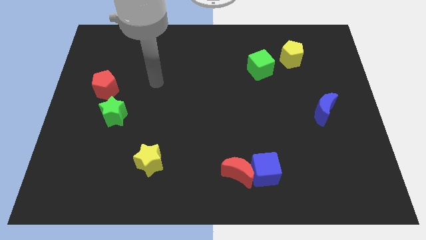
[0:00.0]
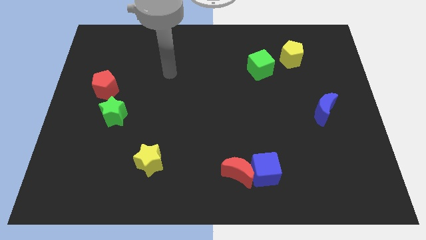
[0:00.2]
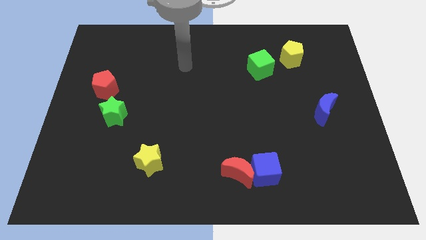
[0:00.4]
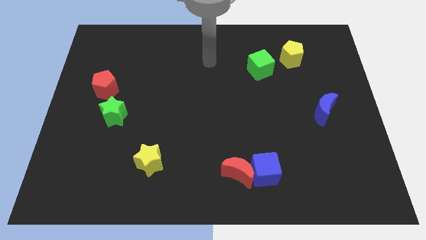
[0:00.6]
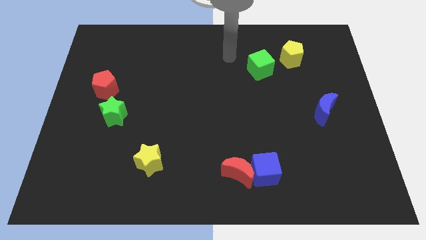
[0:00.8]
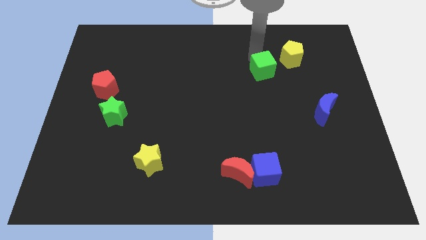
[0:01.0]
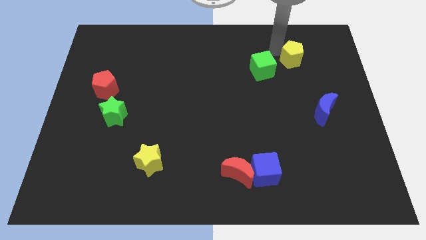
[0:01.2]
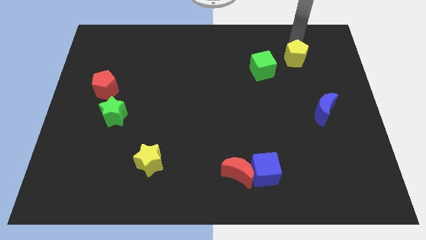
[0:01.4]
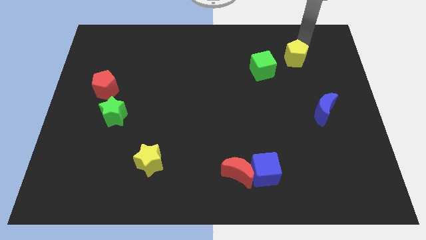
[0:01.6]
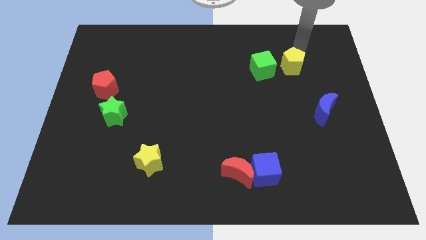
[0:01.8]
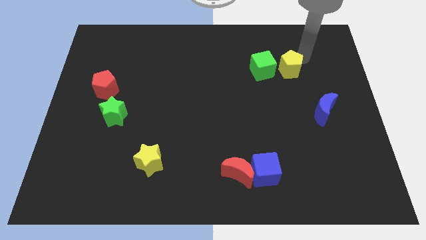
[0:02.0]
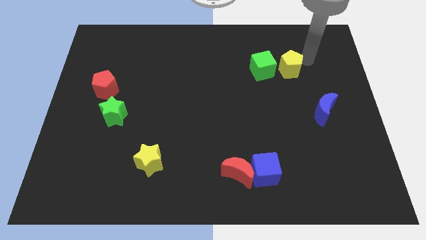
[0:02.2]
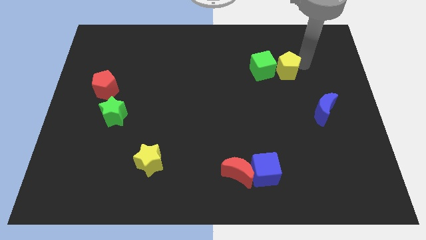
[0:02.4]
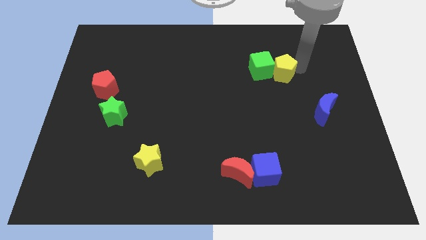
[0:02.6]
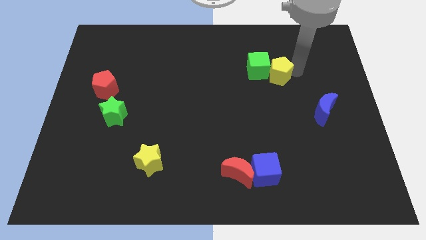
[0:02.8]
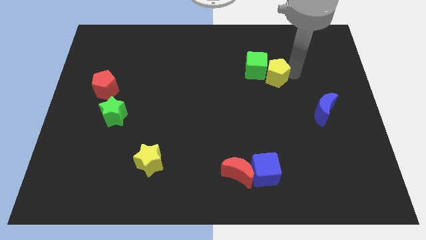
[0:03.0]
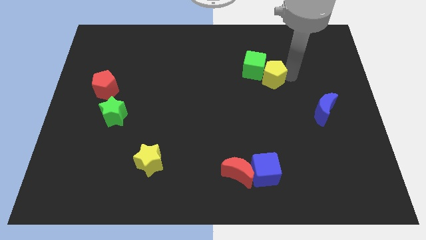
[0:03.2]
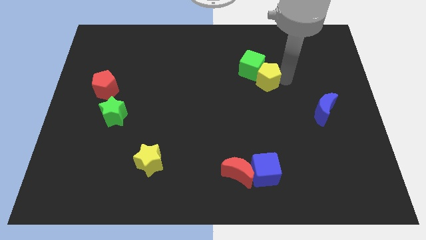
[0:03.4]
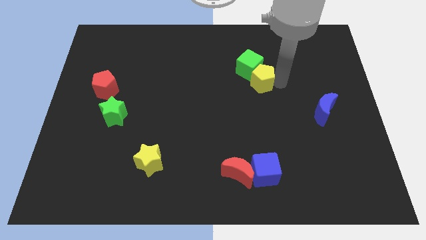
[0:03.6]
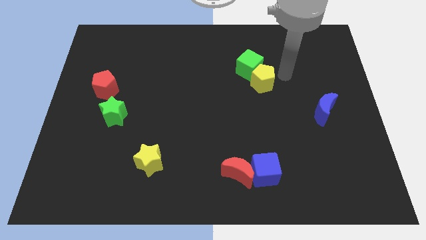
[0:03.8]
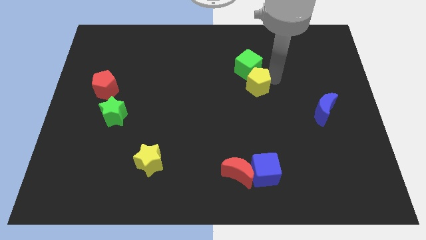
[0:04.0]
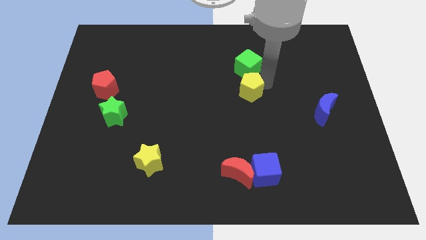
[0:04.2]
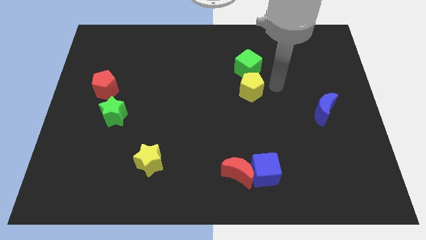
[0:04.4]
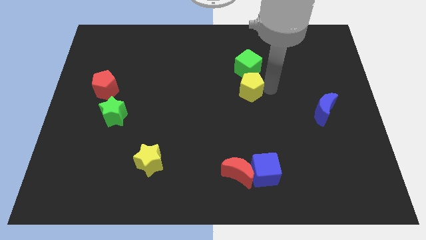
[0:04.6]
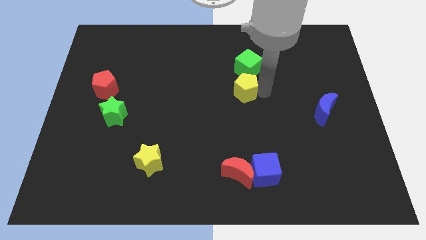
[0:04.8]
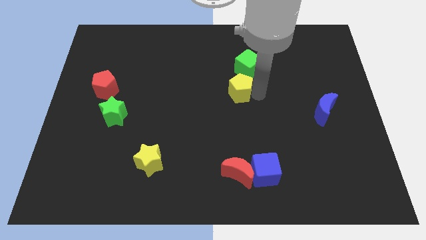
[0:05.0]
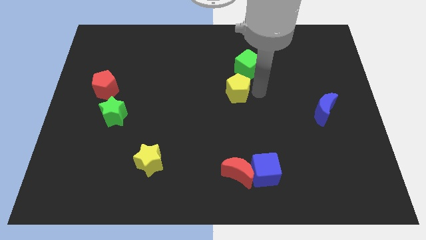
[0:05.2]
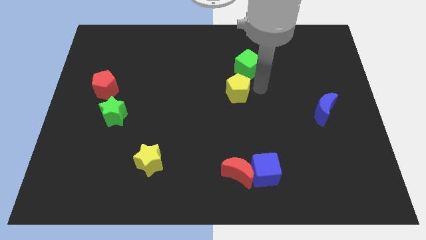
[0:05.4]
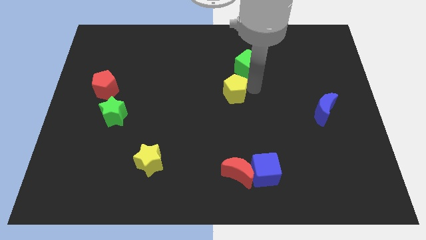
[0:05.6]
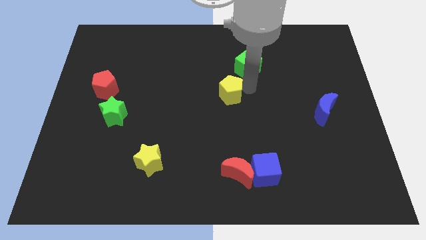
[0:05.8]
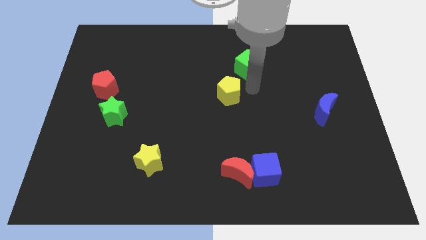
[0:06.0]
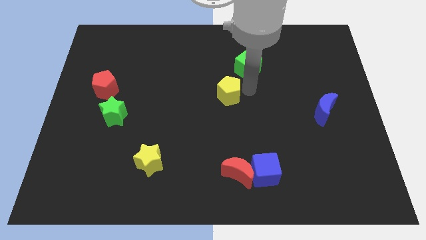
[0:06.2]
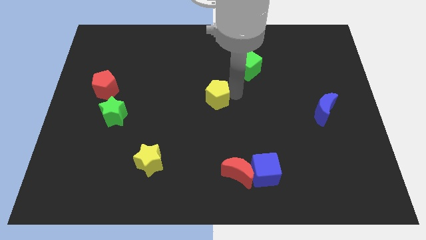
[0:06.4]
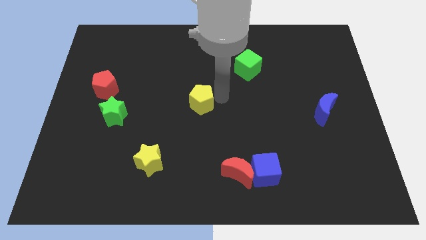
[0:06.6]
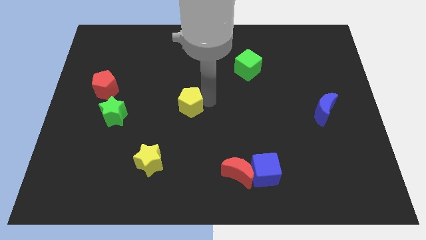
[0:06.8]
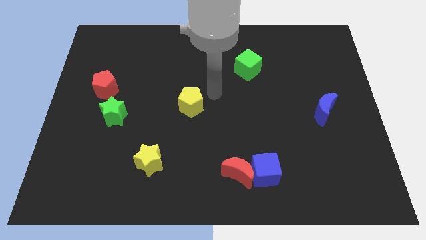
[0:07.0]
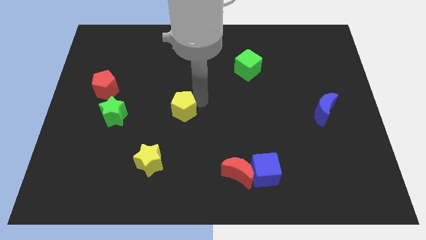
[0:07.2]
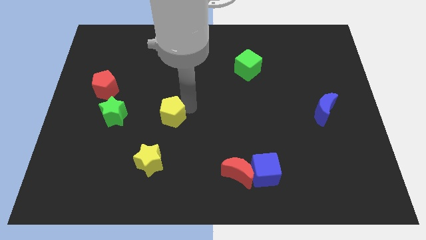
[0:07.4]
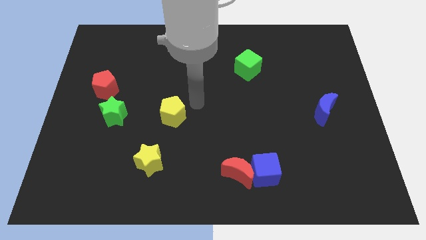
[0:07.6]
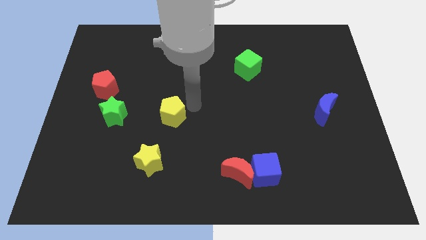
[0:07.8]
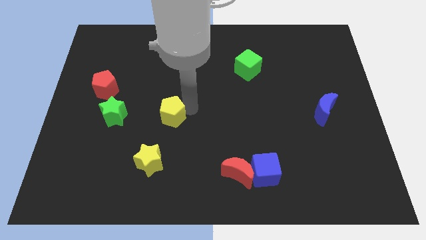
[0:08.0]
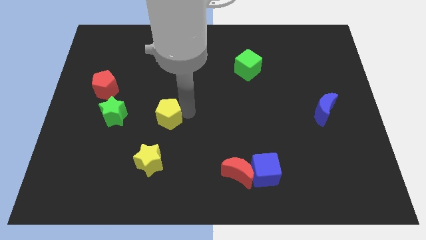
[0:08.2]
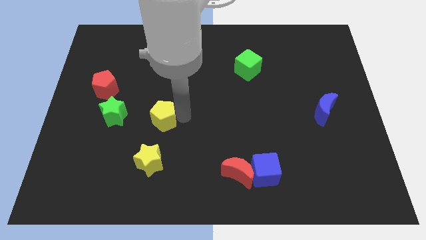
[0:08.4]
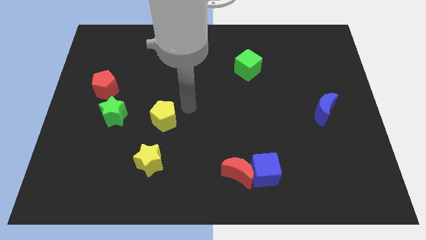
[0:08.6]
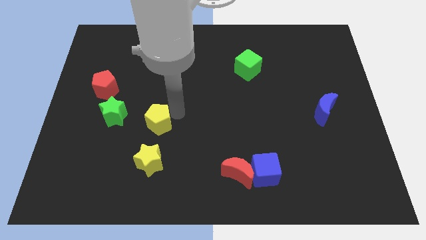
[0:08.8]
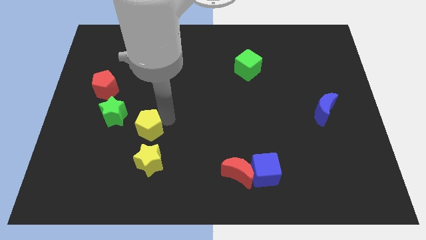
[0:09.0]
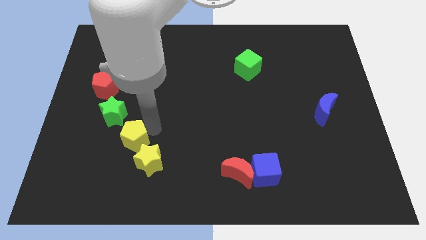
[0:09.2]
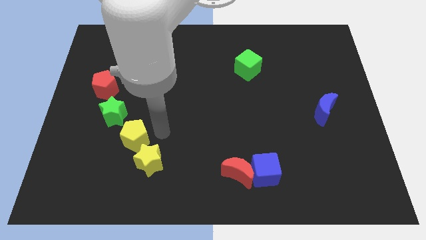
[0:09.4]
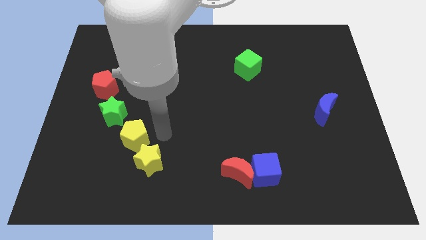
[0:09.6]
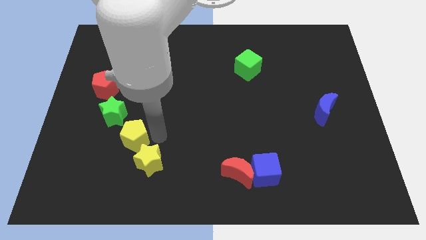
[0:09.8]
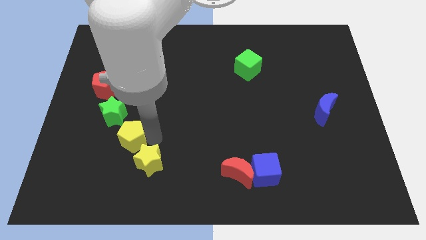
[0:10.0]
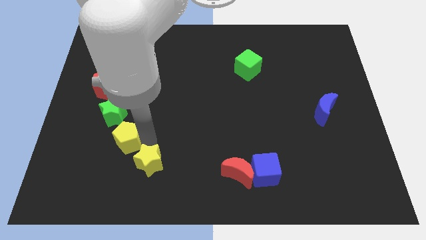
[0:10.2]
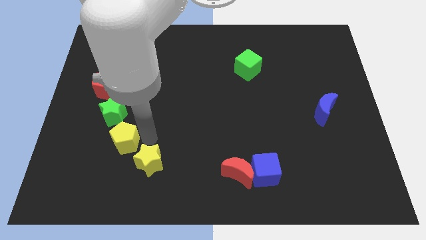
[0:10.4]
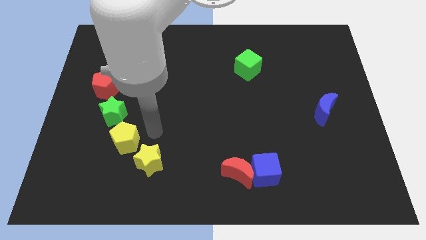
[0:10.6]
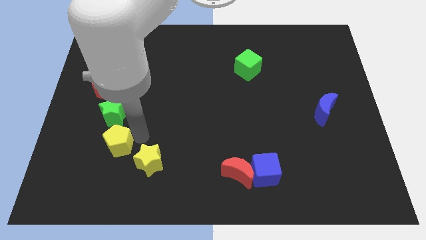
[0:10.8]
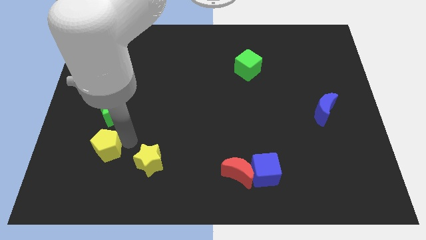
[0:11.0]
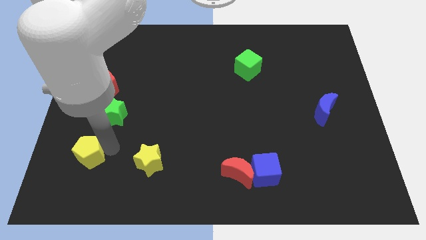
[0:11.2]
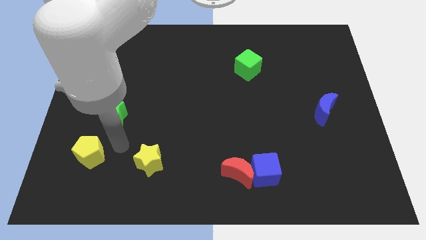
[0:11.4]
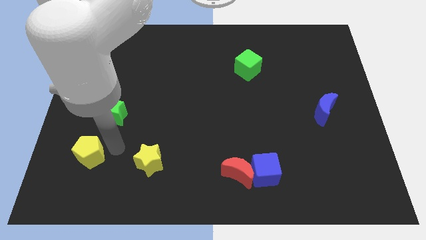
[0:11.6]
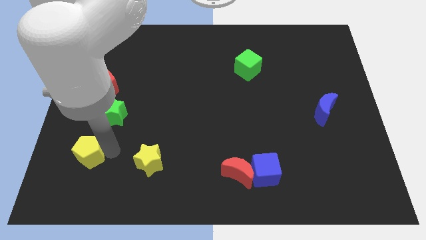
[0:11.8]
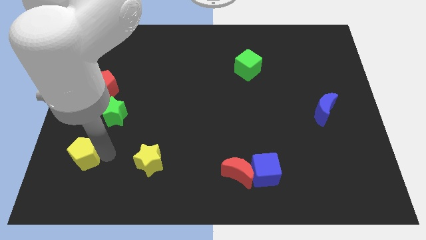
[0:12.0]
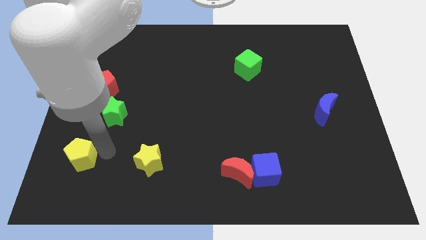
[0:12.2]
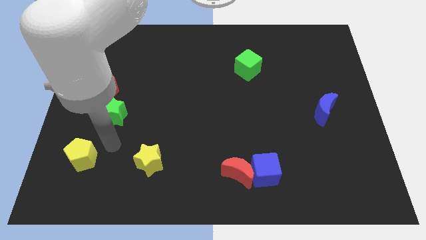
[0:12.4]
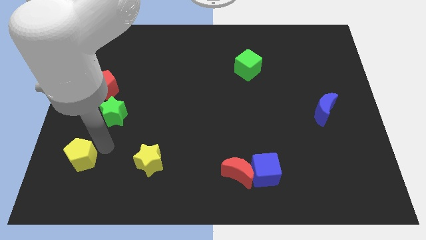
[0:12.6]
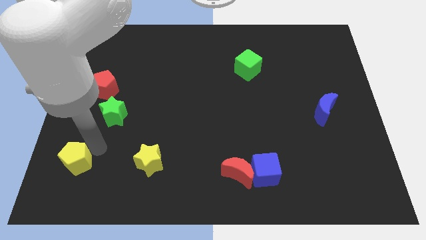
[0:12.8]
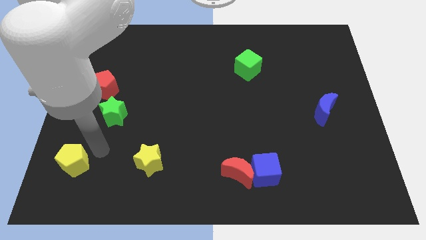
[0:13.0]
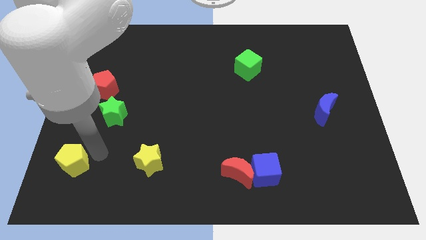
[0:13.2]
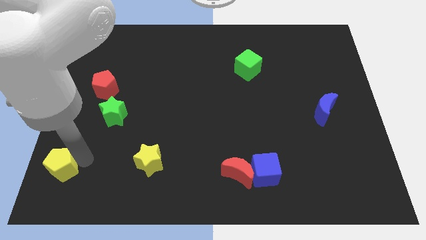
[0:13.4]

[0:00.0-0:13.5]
move the yellow pentagon to the bottom left corner
